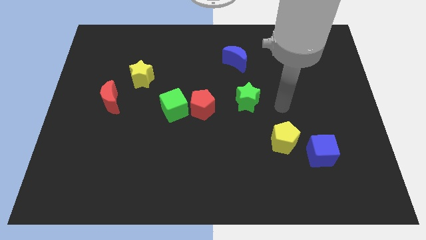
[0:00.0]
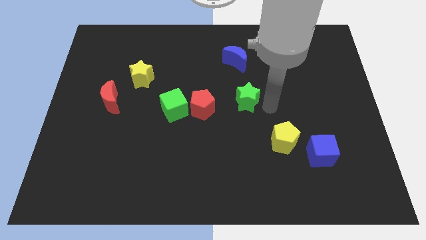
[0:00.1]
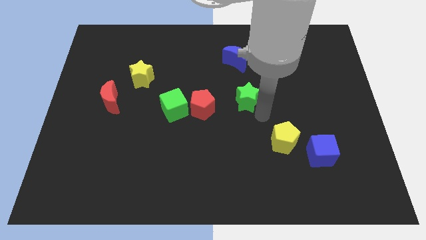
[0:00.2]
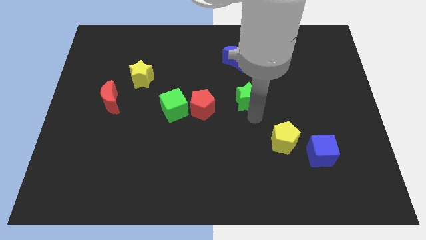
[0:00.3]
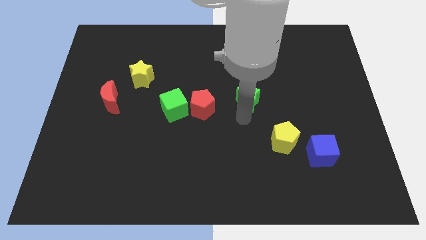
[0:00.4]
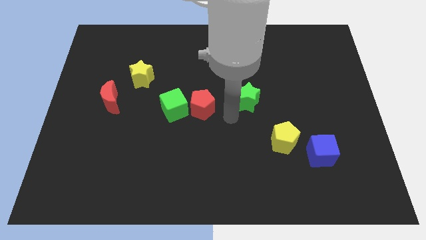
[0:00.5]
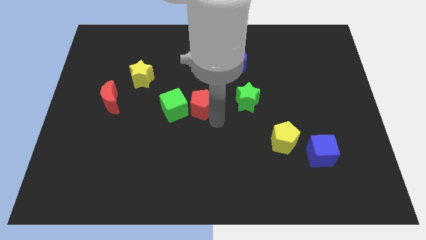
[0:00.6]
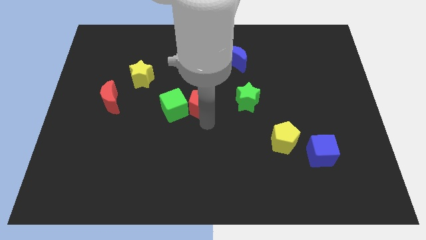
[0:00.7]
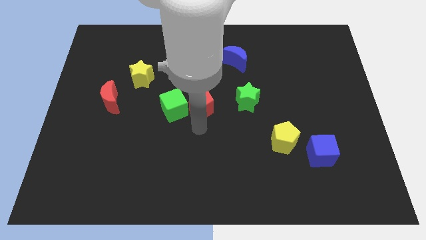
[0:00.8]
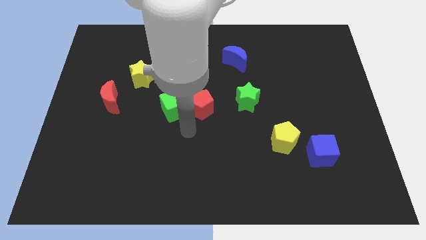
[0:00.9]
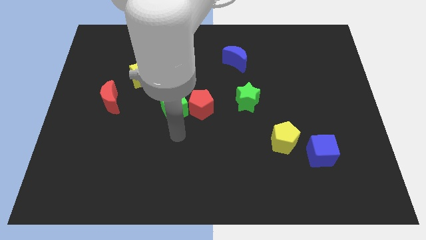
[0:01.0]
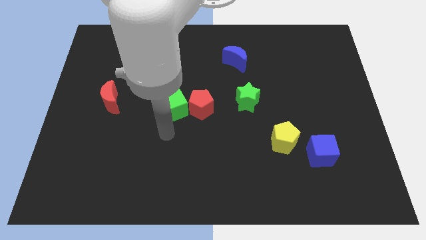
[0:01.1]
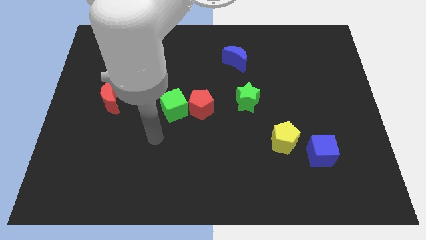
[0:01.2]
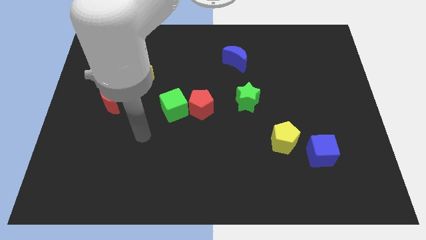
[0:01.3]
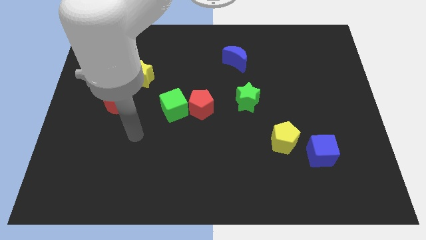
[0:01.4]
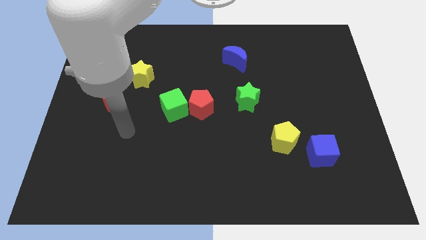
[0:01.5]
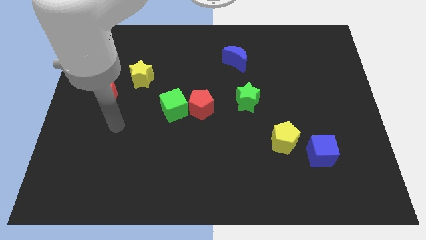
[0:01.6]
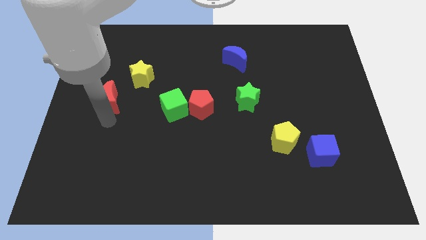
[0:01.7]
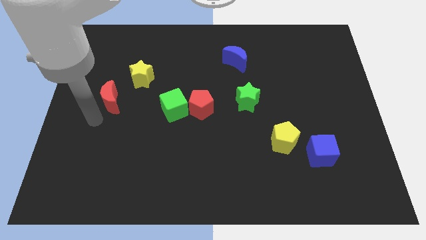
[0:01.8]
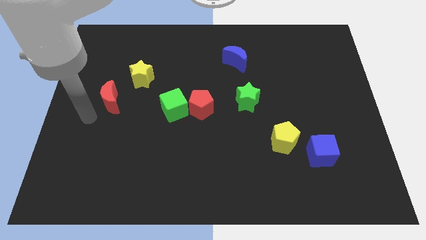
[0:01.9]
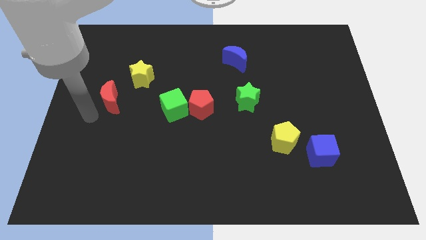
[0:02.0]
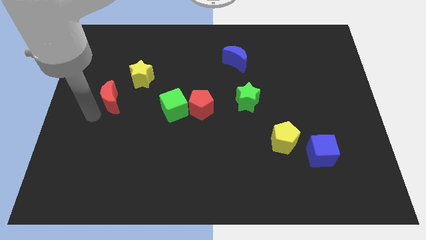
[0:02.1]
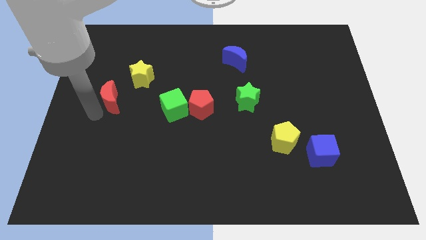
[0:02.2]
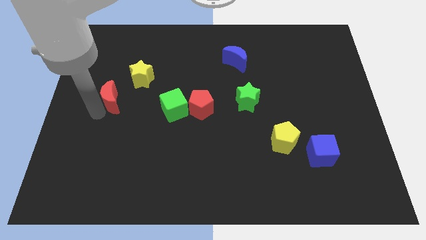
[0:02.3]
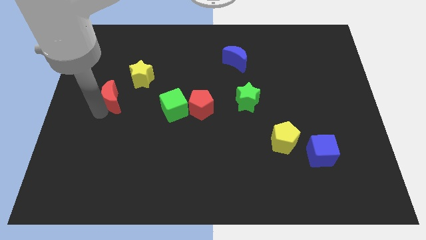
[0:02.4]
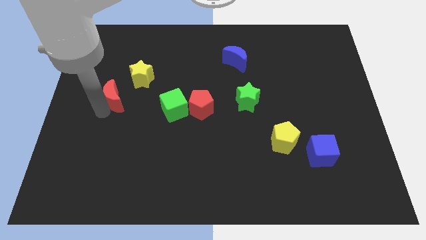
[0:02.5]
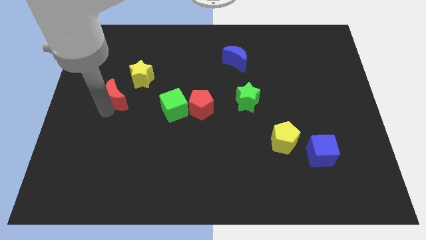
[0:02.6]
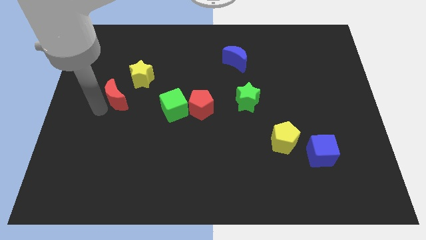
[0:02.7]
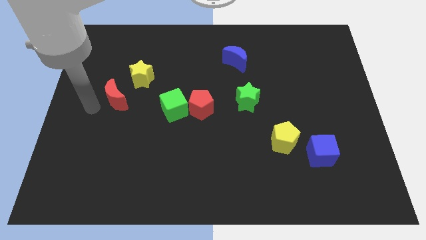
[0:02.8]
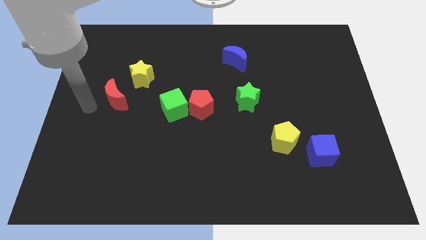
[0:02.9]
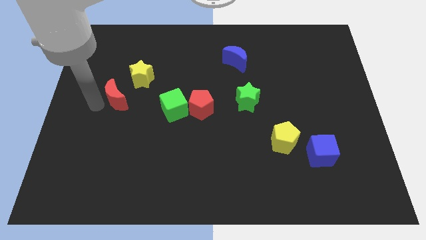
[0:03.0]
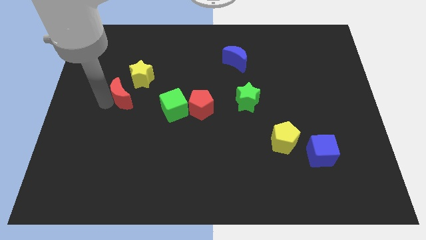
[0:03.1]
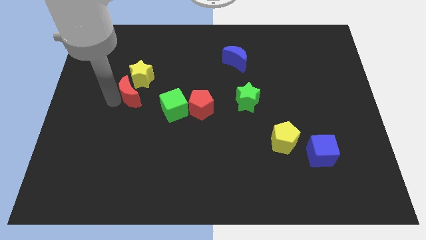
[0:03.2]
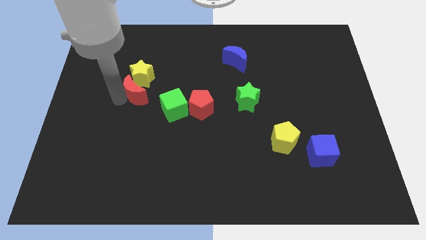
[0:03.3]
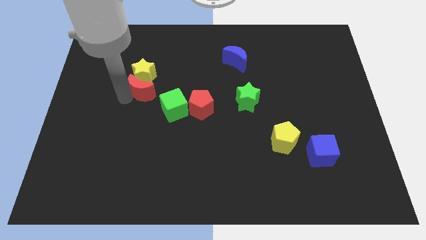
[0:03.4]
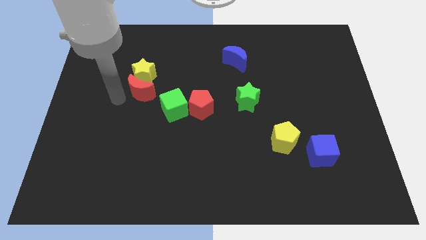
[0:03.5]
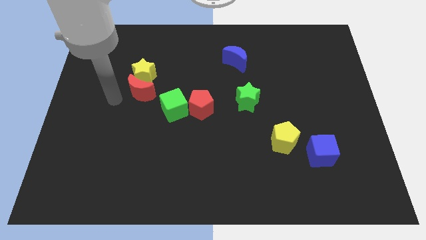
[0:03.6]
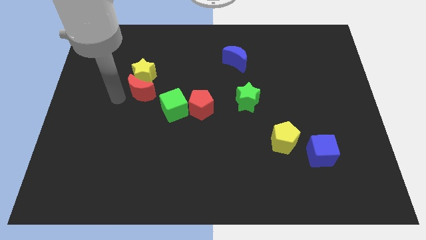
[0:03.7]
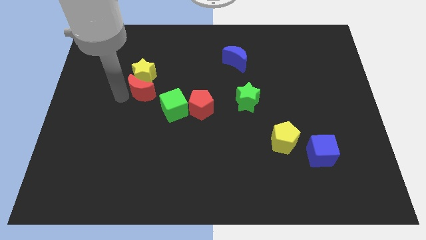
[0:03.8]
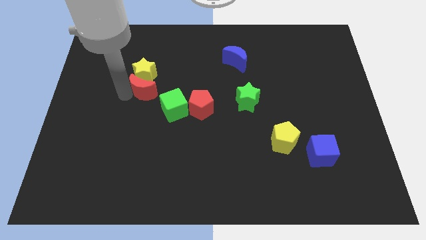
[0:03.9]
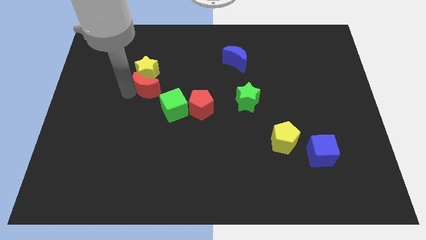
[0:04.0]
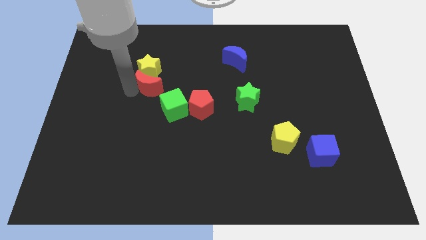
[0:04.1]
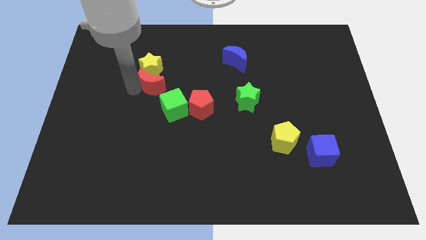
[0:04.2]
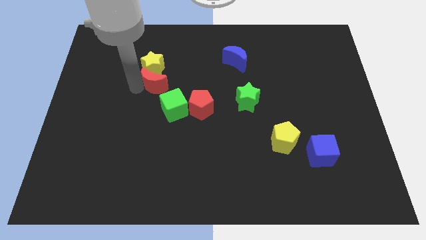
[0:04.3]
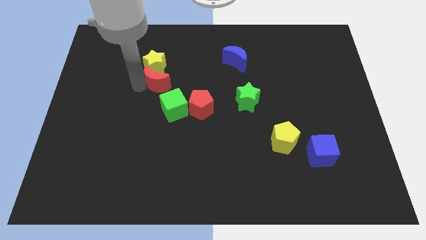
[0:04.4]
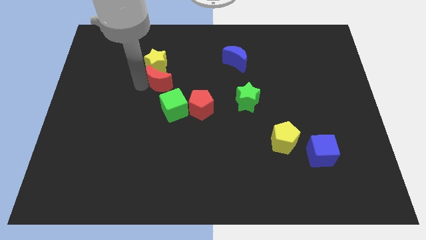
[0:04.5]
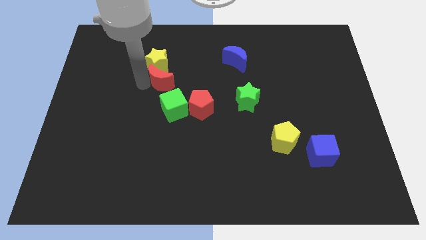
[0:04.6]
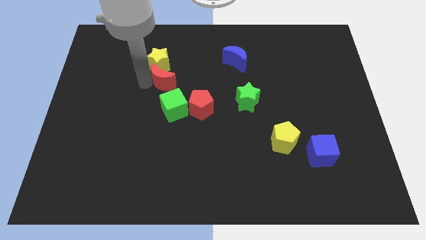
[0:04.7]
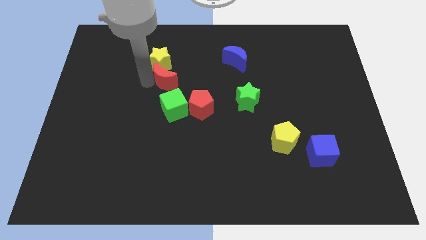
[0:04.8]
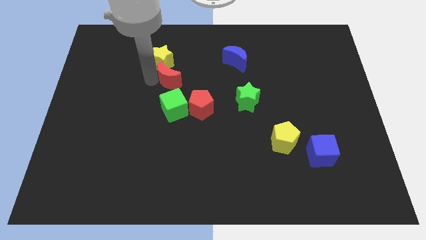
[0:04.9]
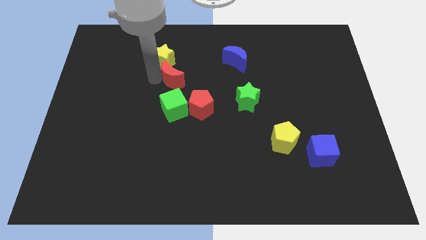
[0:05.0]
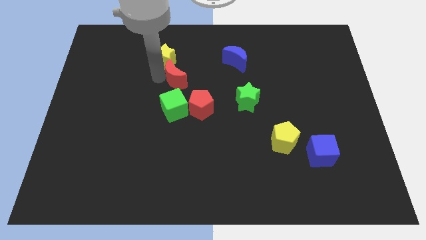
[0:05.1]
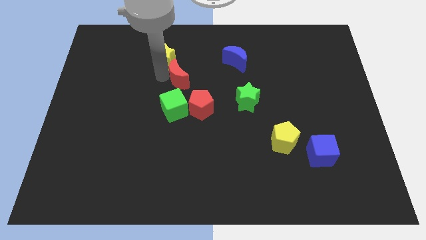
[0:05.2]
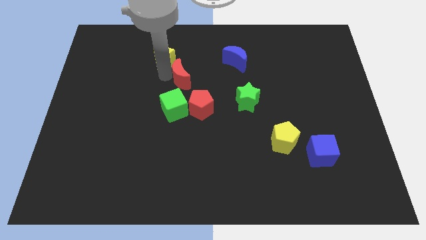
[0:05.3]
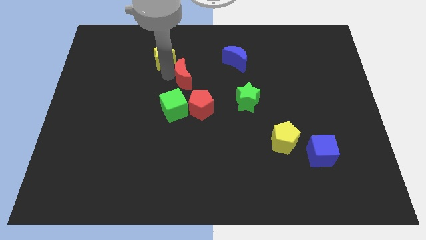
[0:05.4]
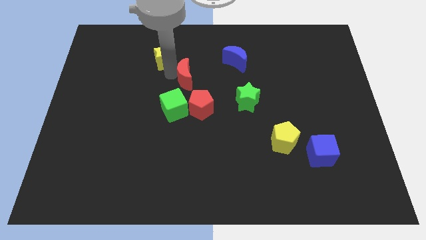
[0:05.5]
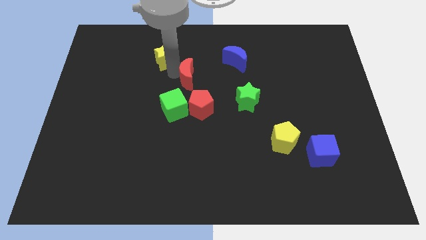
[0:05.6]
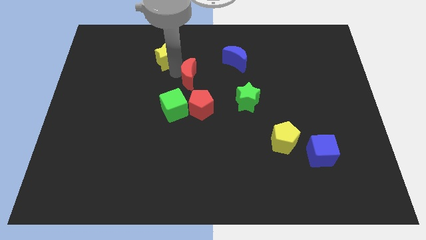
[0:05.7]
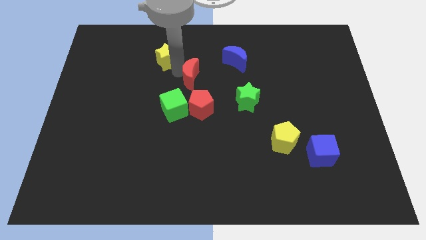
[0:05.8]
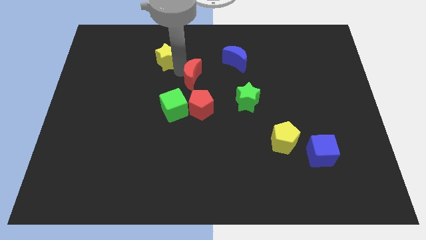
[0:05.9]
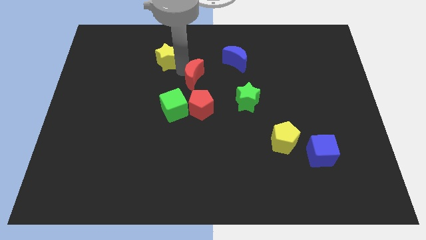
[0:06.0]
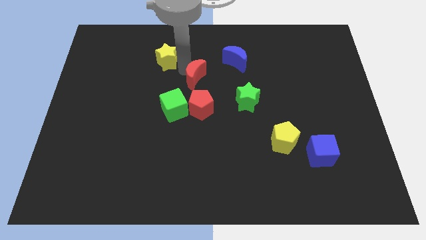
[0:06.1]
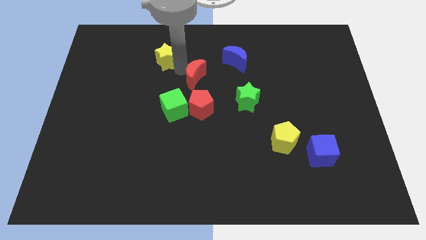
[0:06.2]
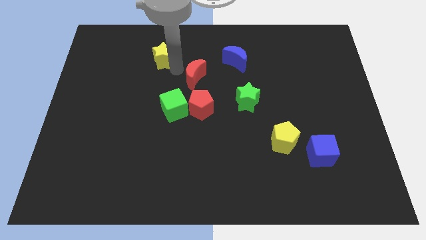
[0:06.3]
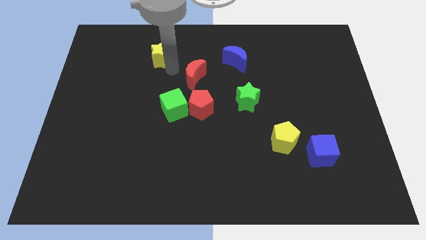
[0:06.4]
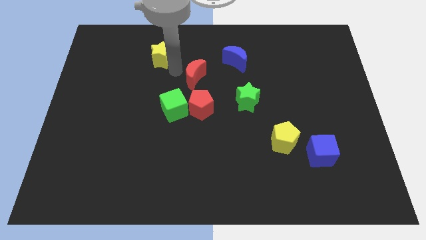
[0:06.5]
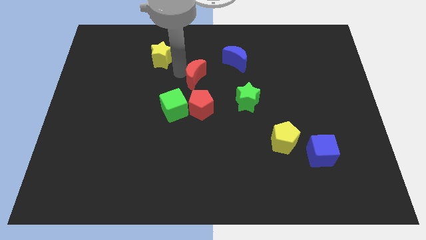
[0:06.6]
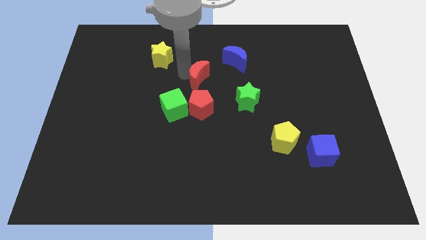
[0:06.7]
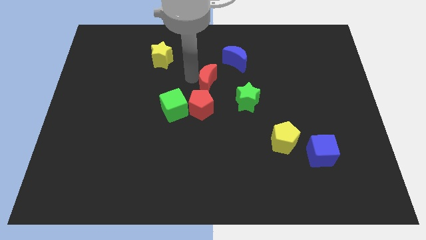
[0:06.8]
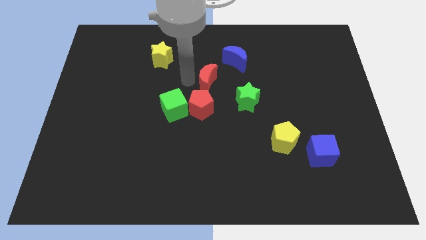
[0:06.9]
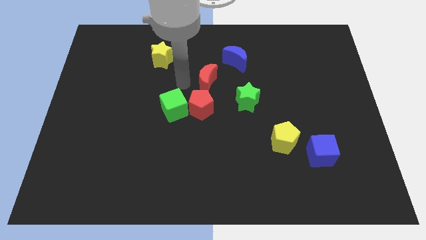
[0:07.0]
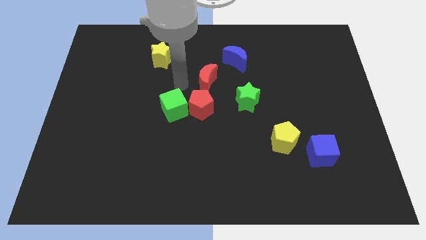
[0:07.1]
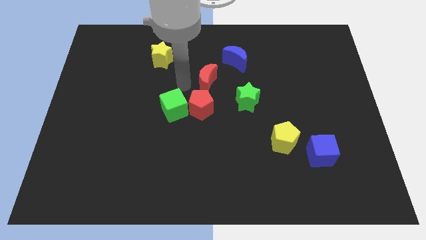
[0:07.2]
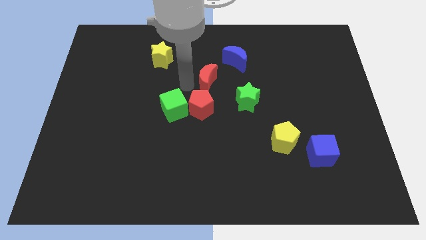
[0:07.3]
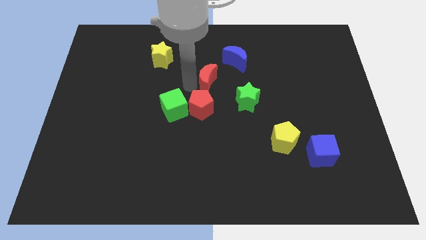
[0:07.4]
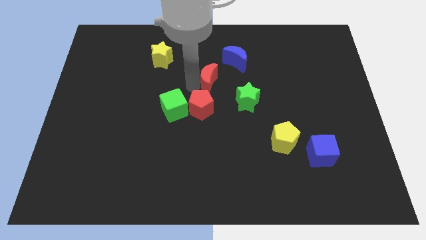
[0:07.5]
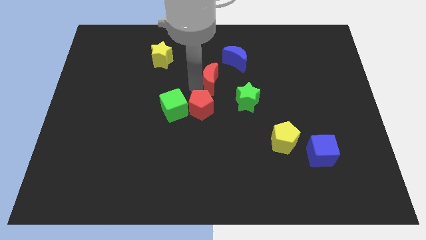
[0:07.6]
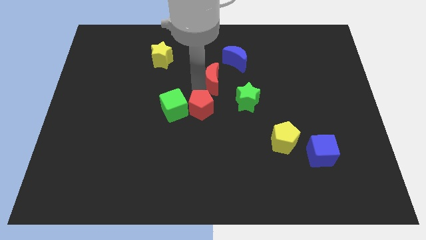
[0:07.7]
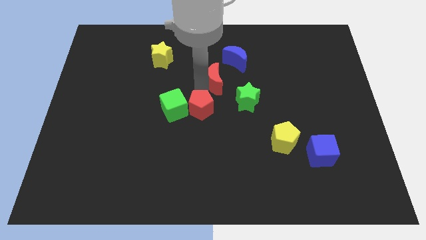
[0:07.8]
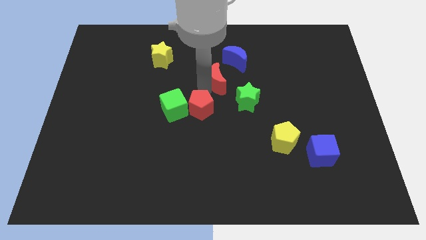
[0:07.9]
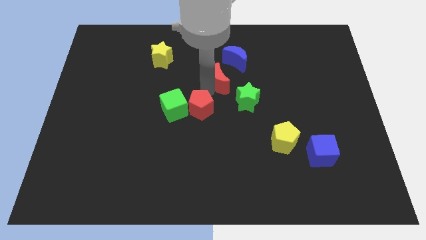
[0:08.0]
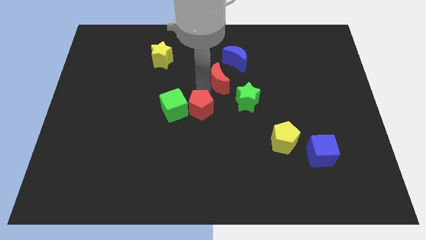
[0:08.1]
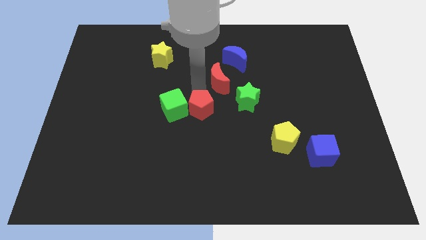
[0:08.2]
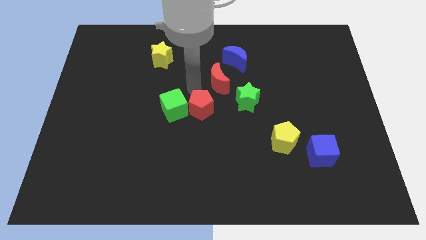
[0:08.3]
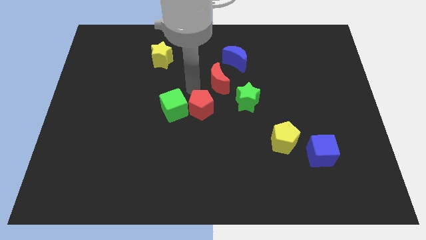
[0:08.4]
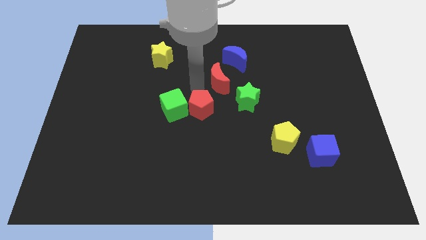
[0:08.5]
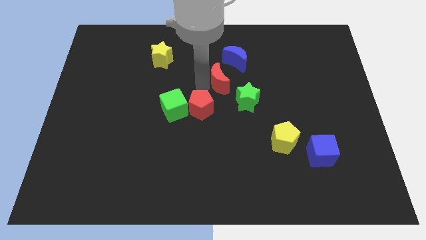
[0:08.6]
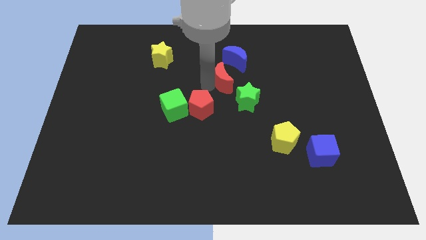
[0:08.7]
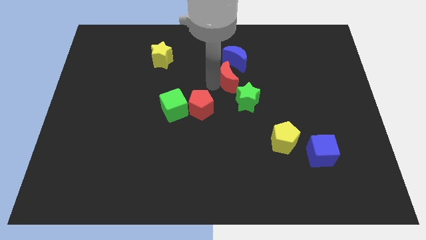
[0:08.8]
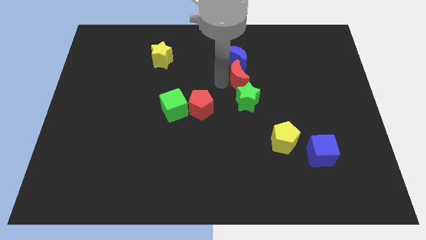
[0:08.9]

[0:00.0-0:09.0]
slide the red moon diagonally down and to the right of the blue moon
